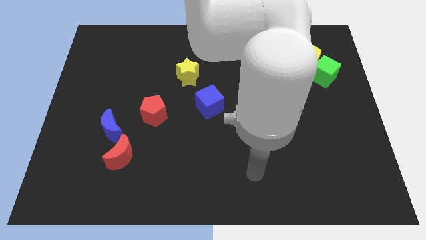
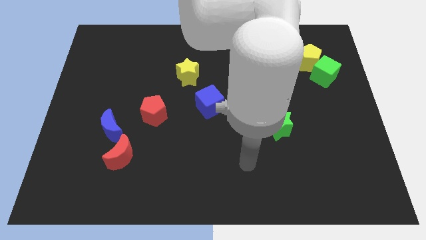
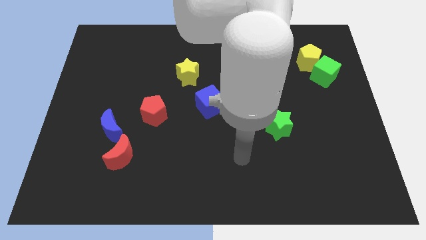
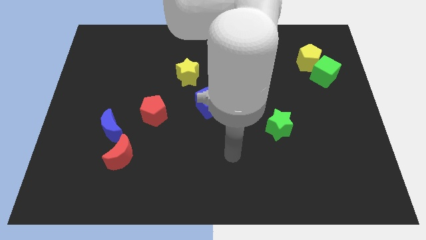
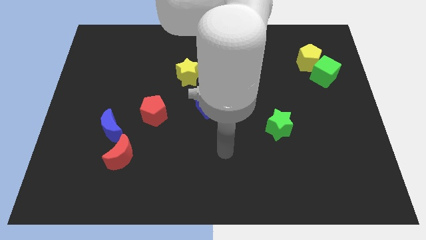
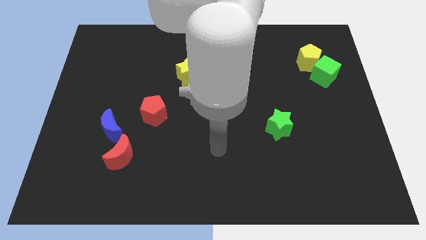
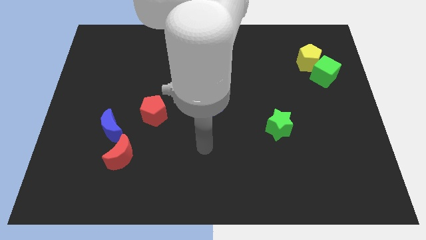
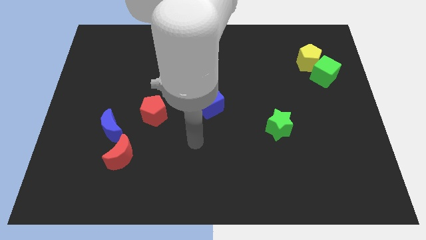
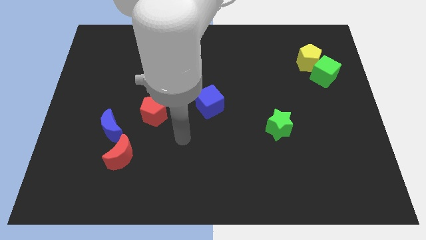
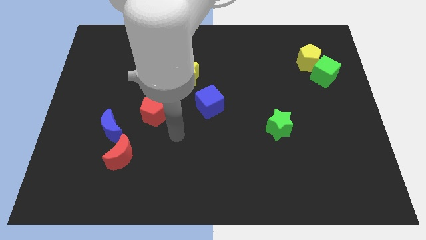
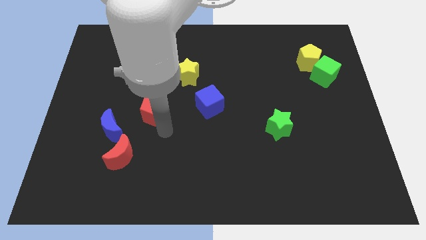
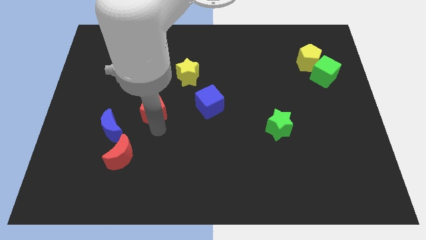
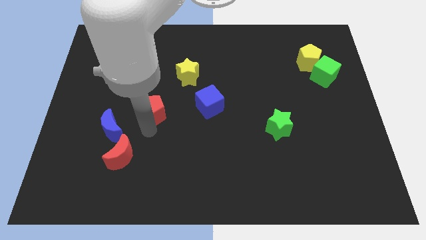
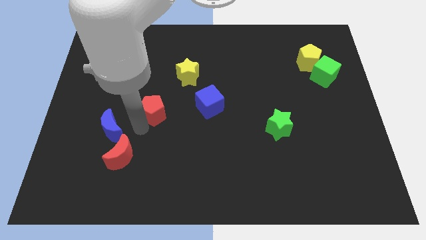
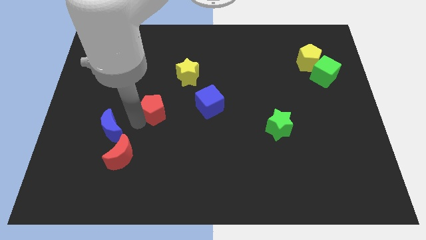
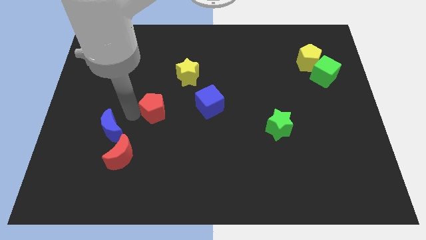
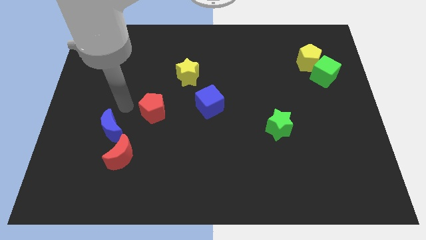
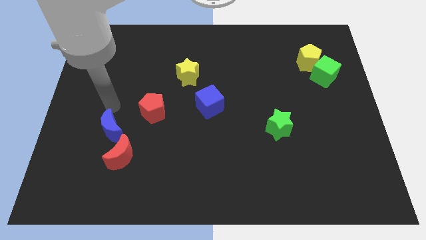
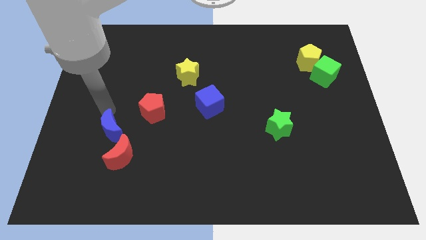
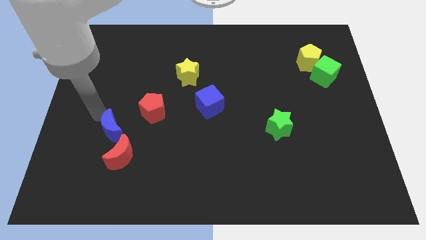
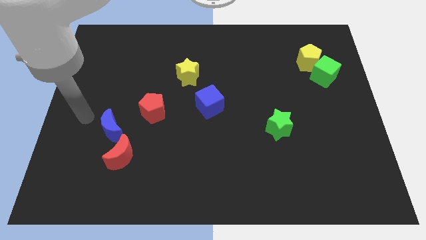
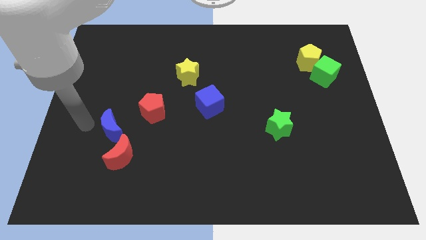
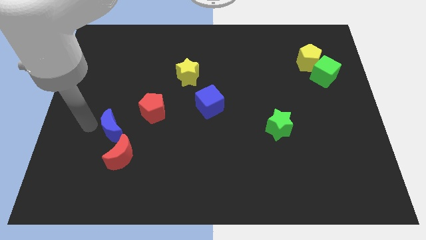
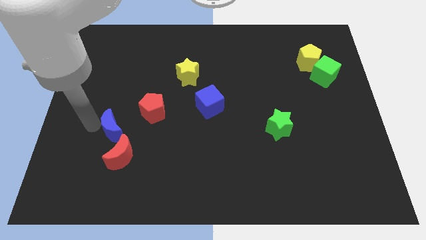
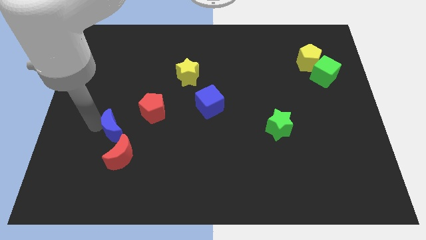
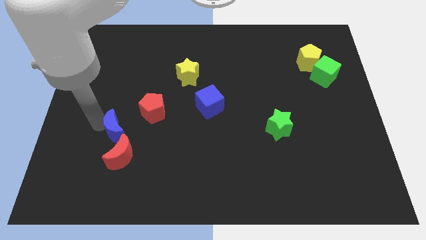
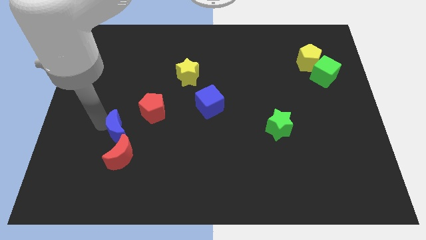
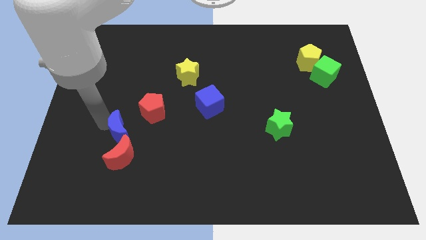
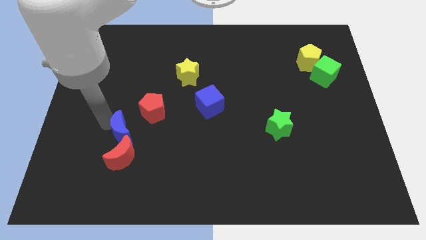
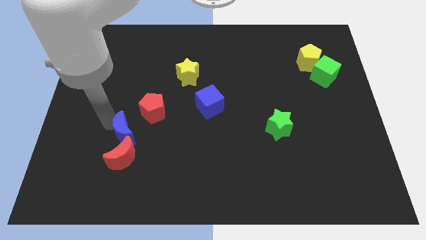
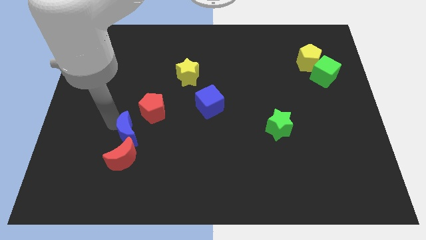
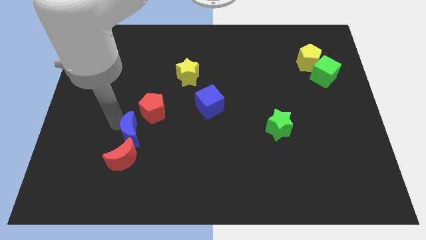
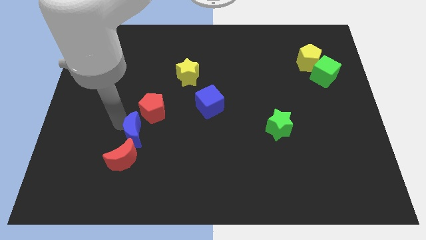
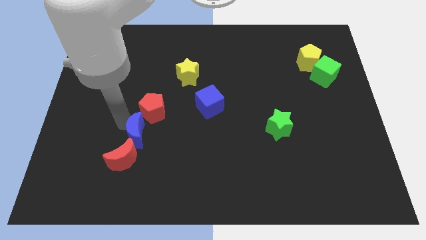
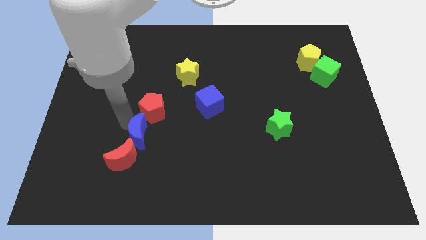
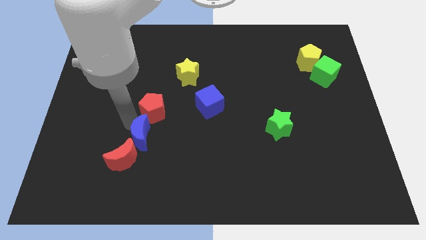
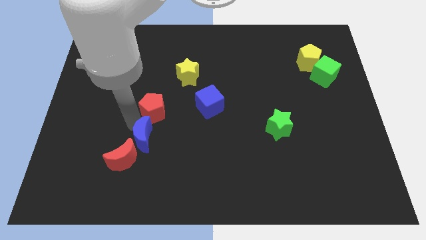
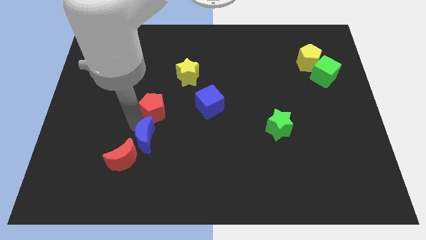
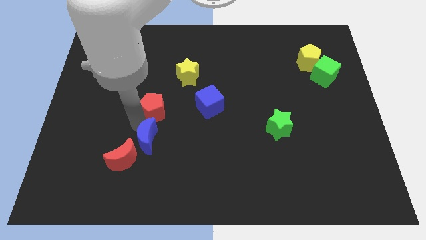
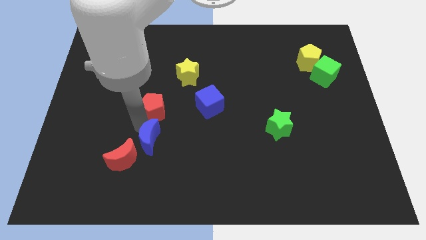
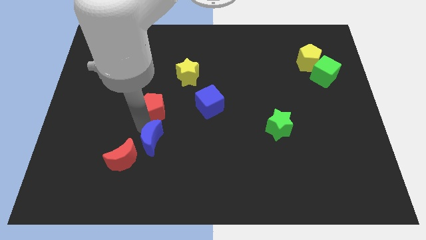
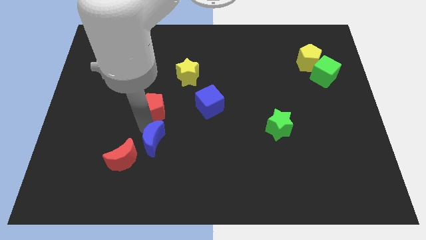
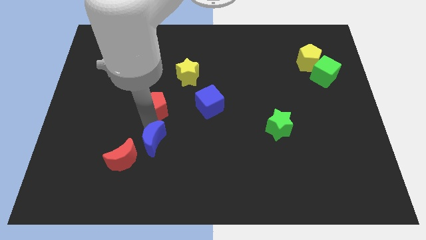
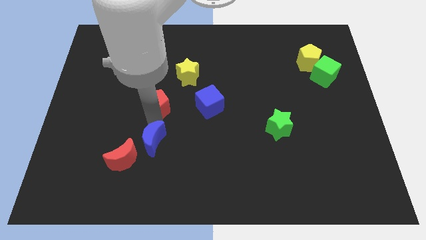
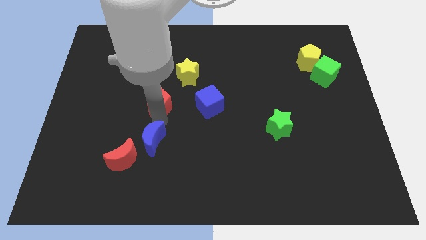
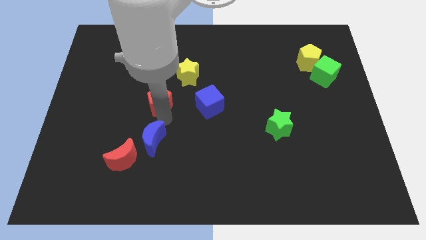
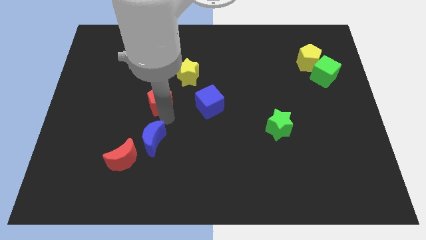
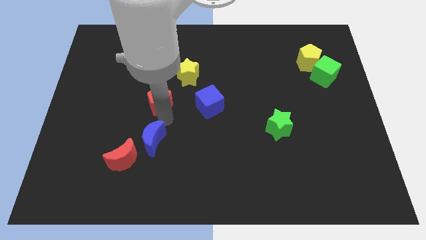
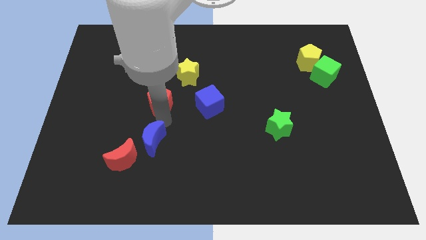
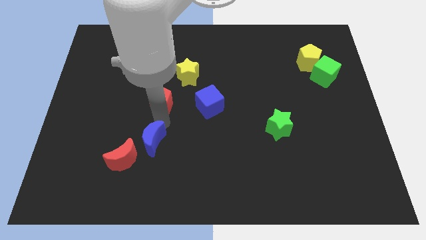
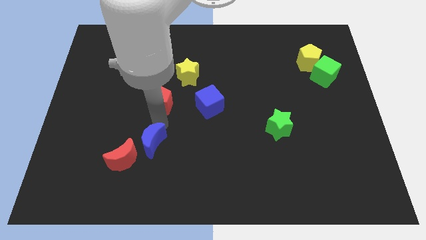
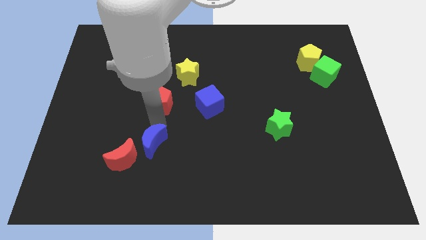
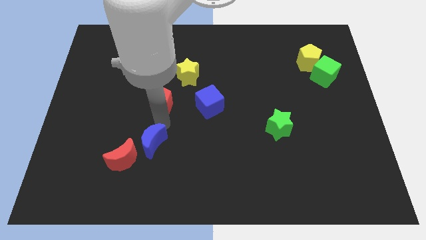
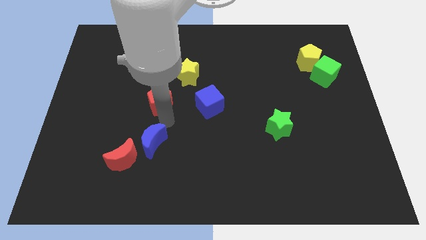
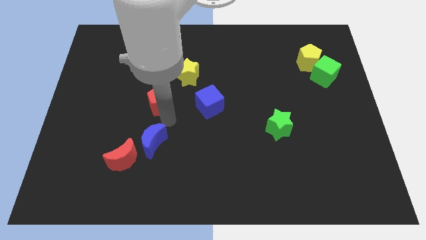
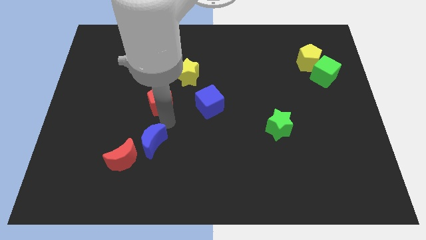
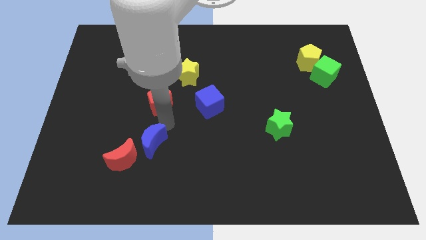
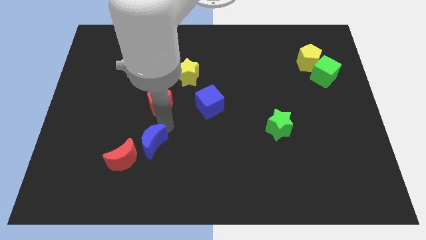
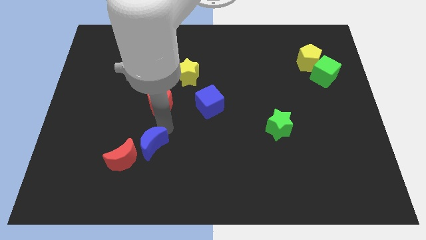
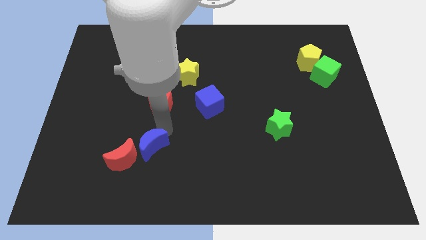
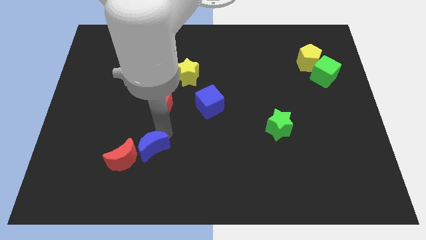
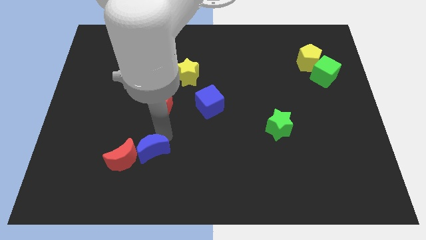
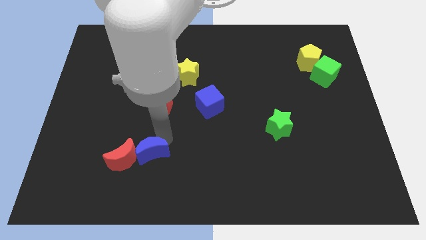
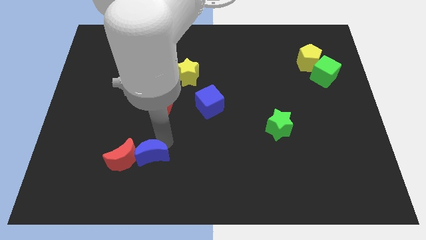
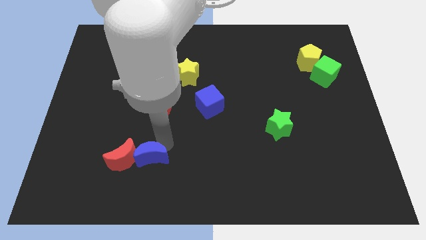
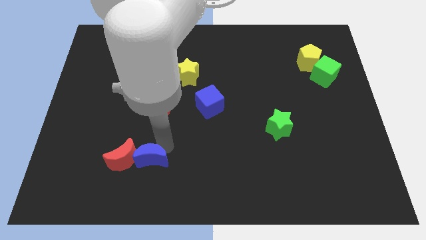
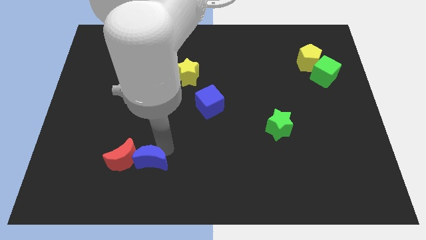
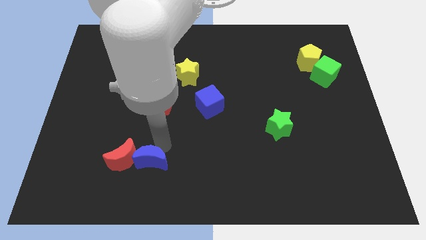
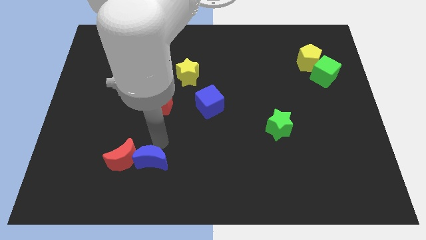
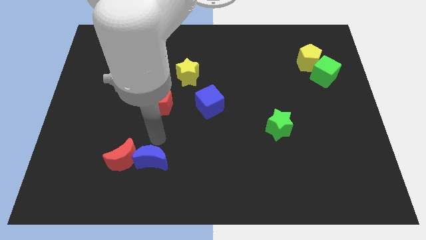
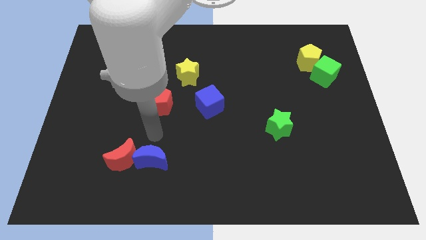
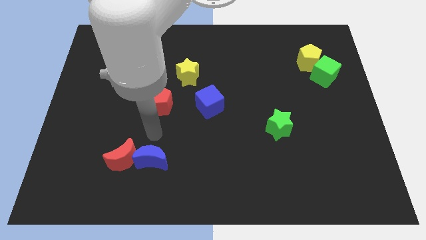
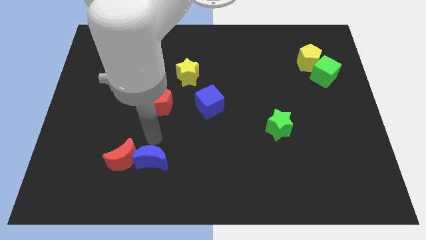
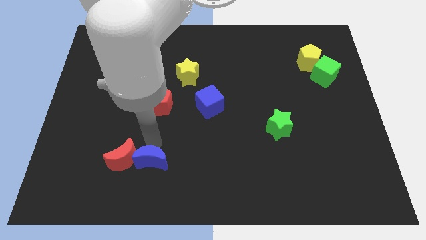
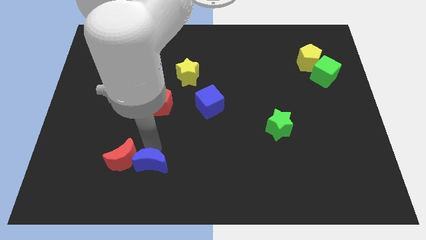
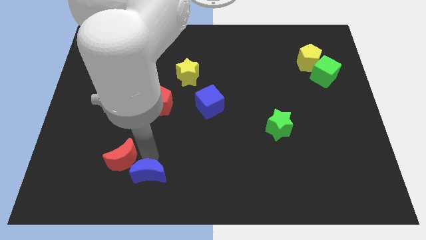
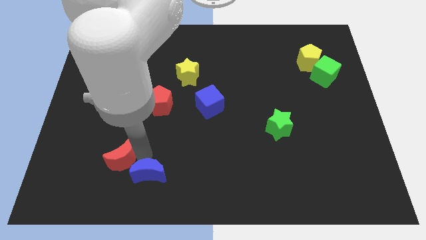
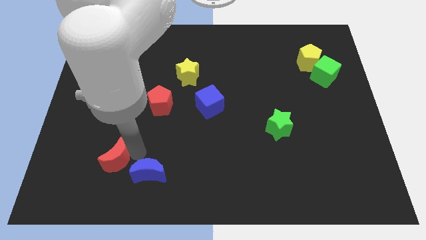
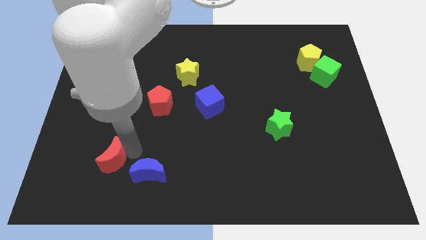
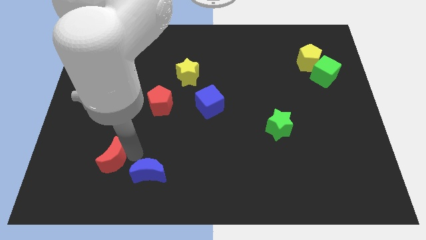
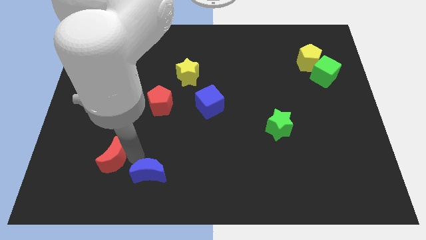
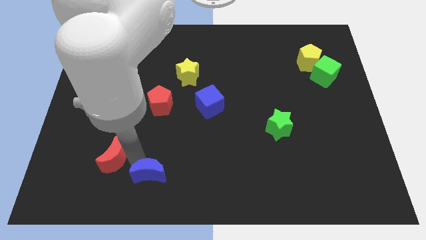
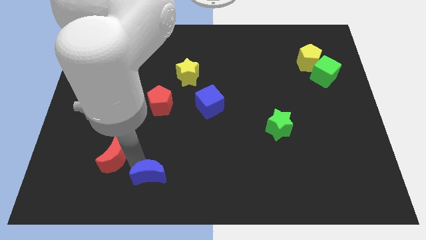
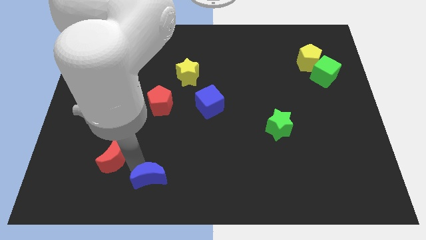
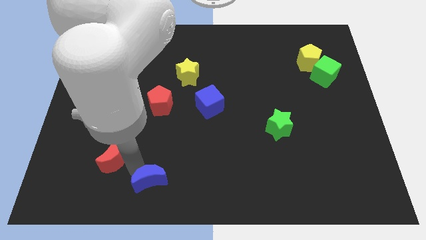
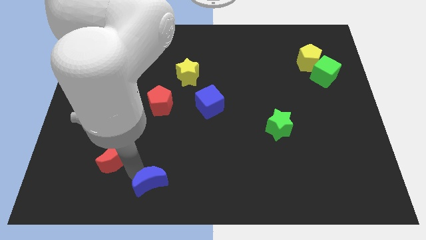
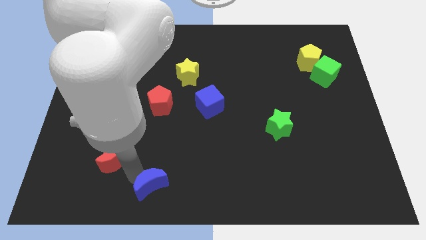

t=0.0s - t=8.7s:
move the blue moon to the bottom
